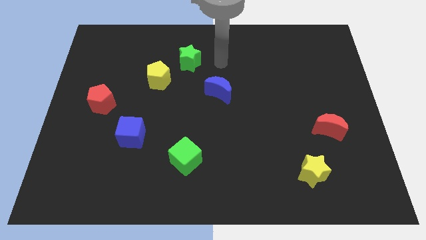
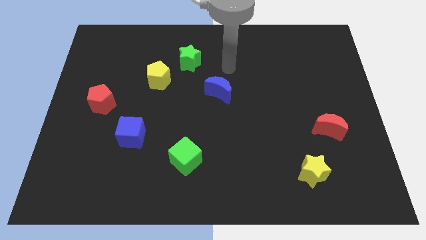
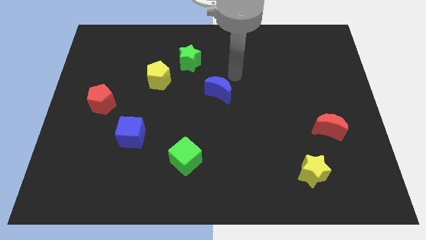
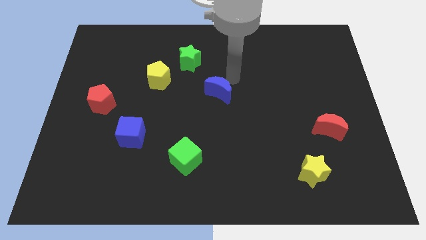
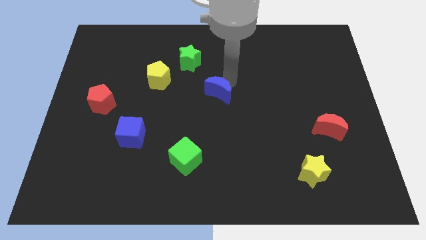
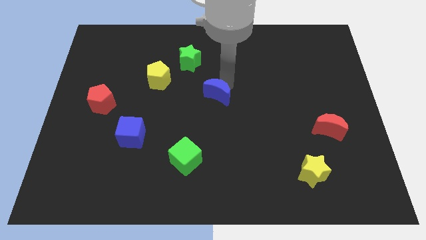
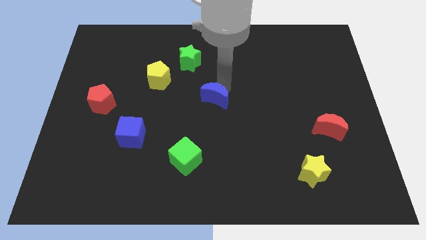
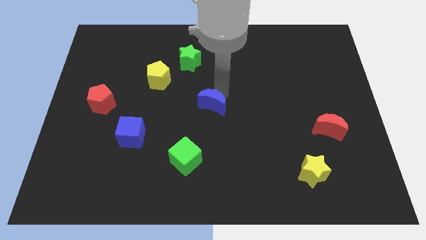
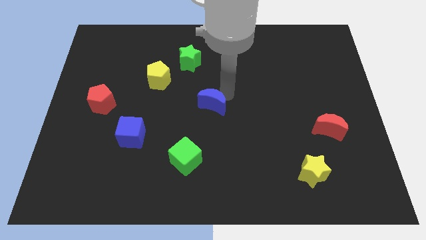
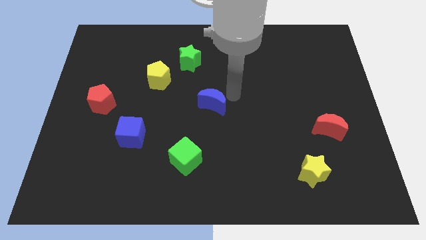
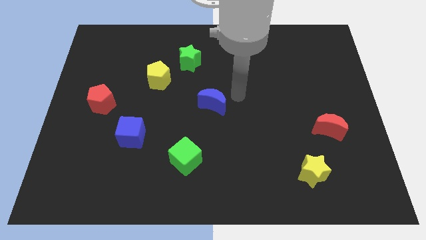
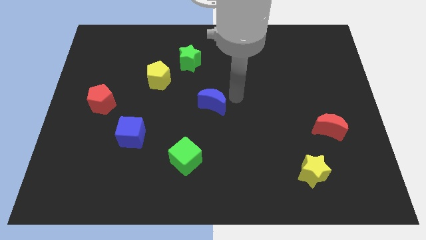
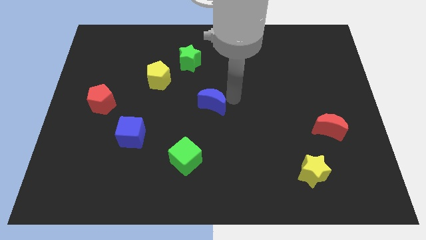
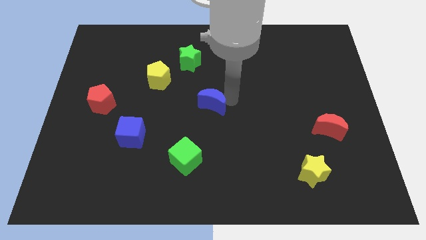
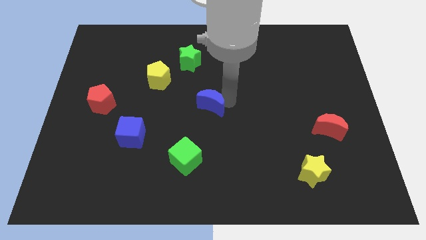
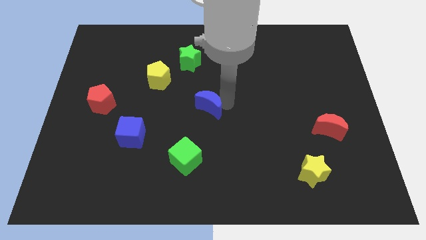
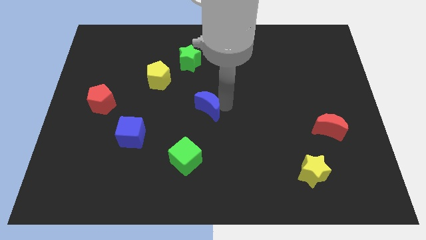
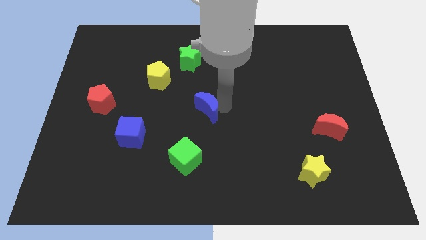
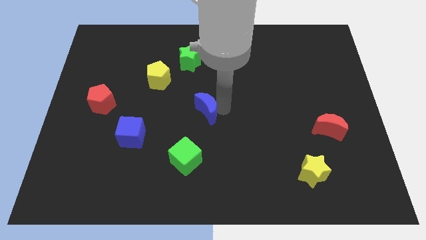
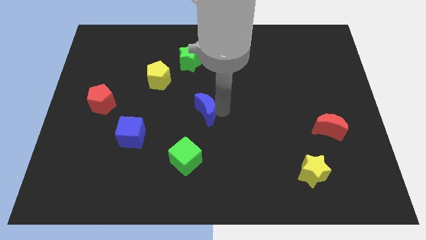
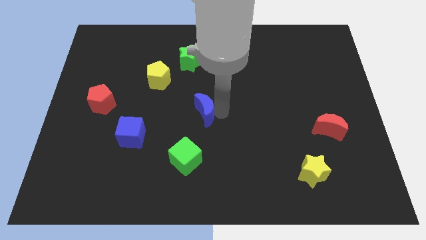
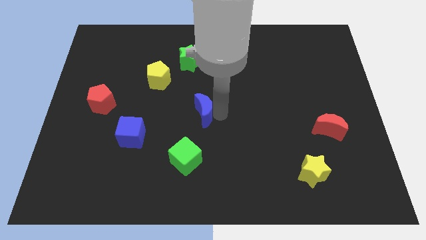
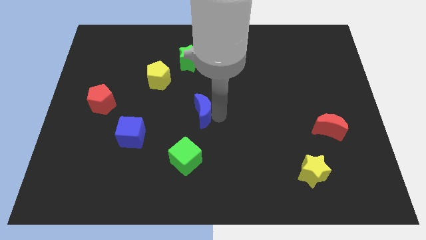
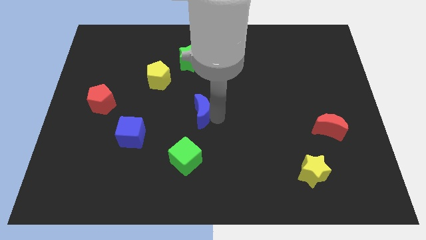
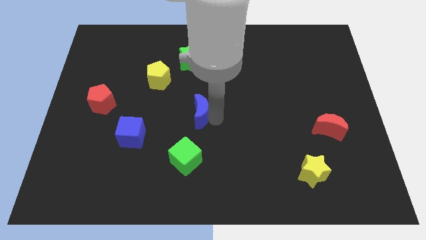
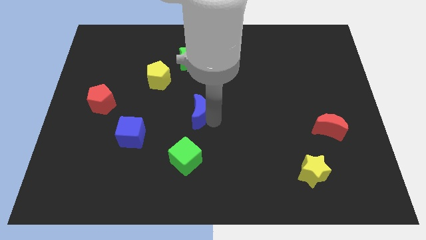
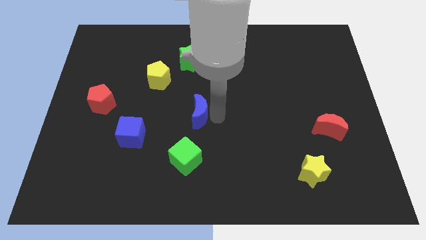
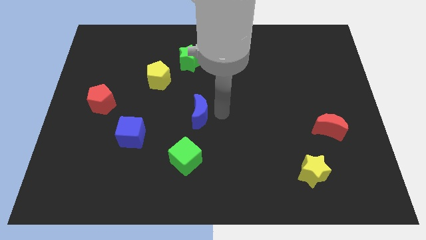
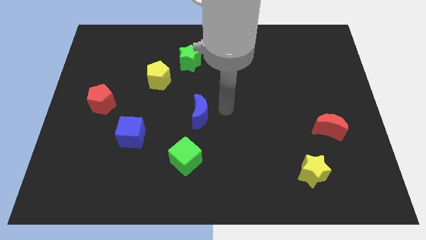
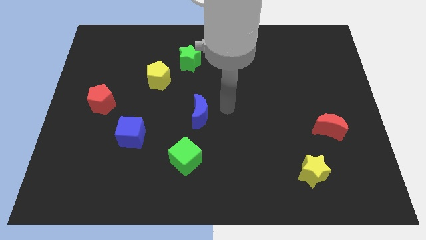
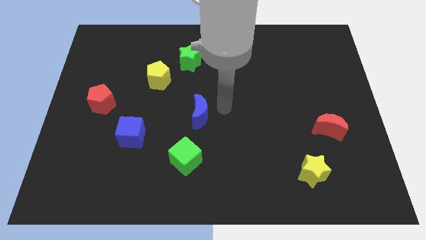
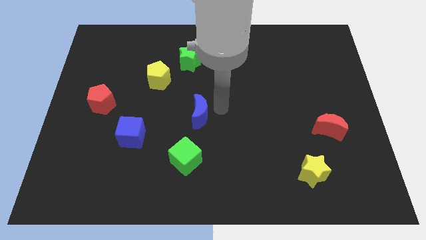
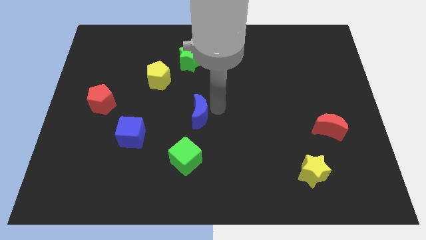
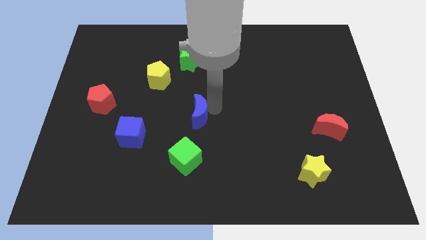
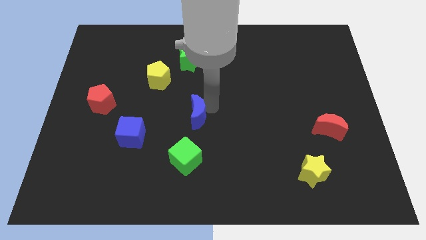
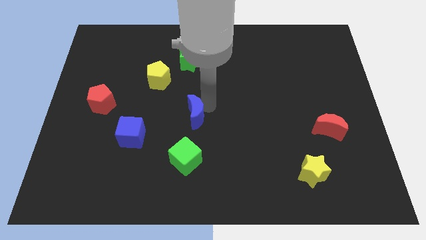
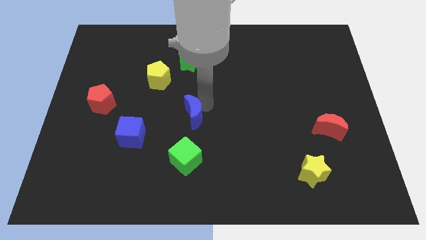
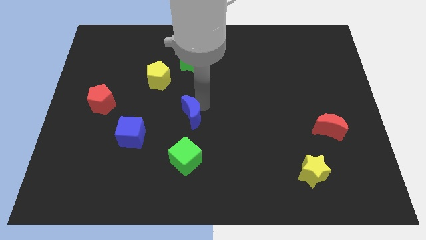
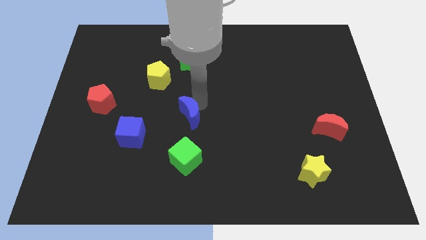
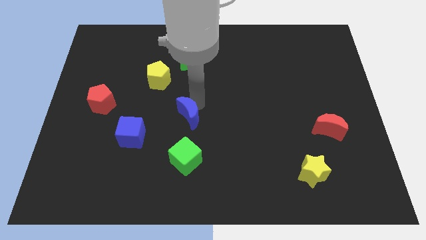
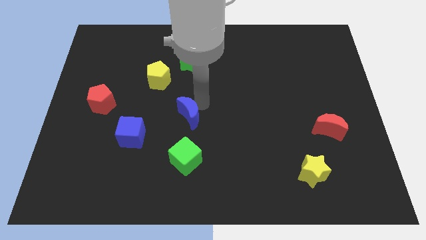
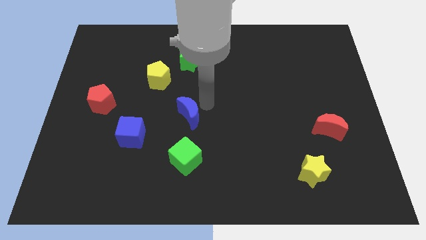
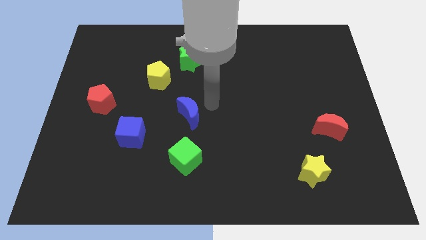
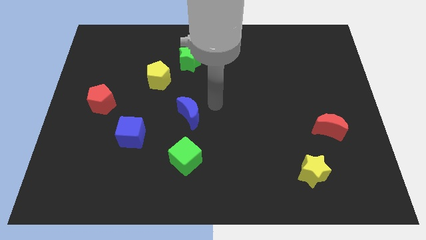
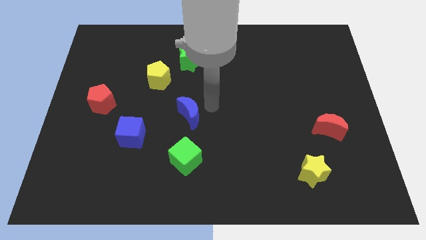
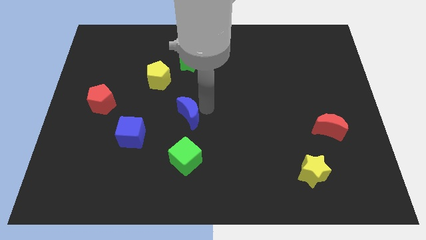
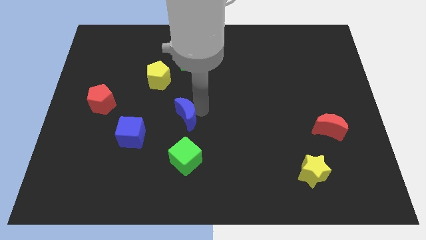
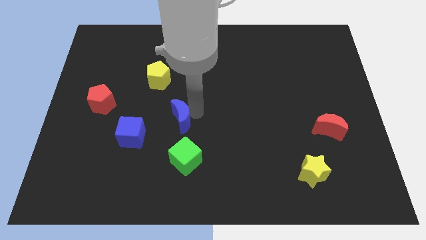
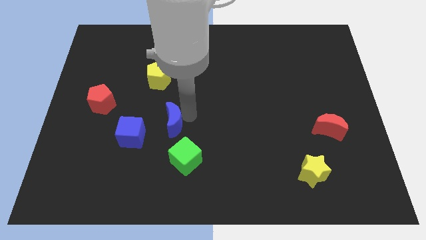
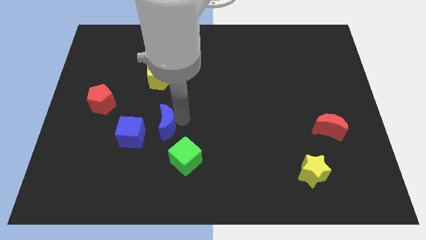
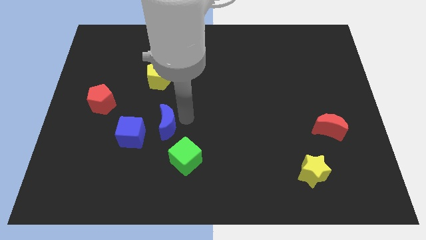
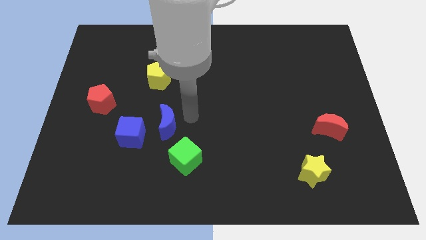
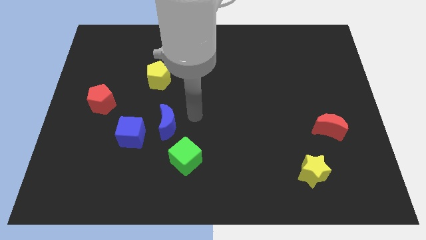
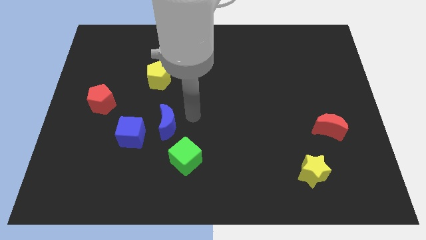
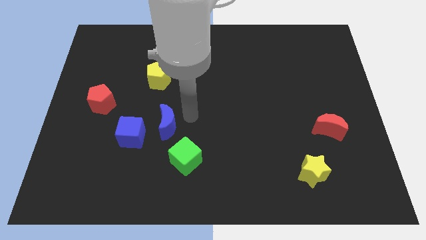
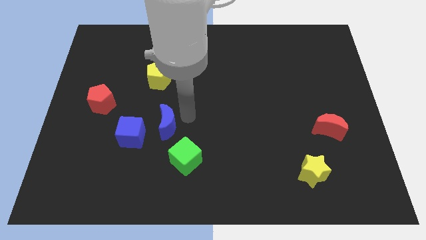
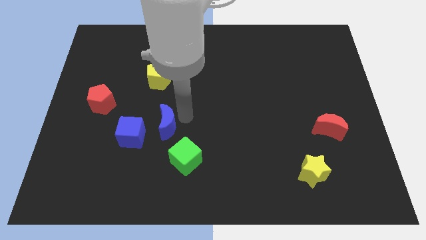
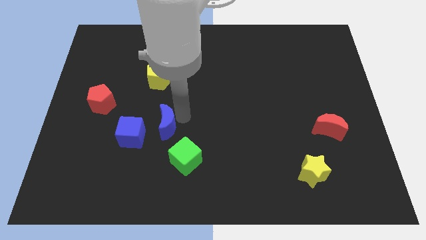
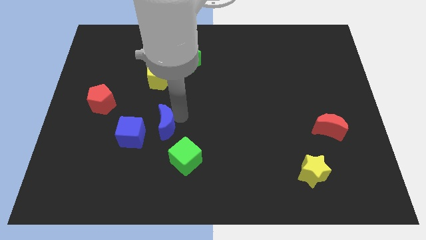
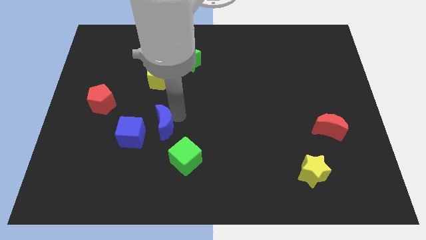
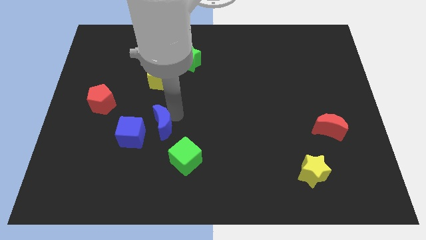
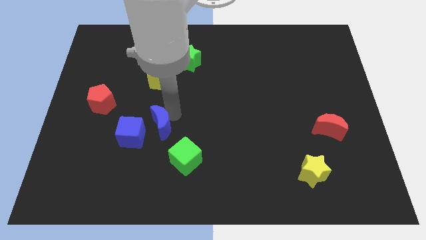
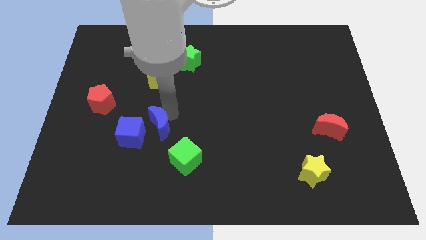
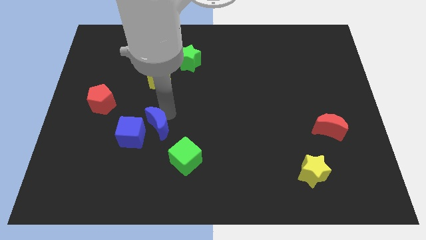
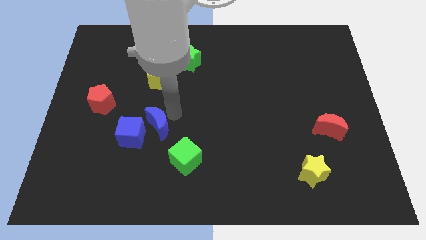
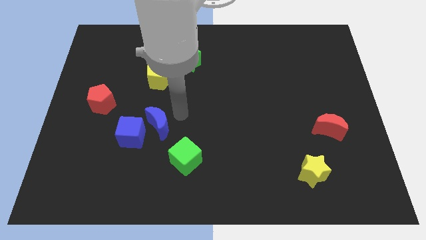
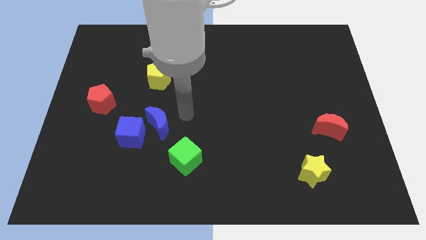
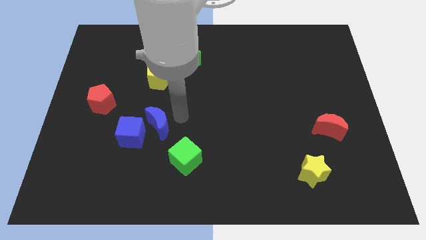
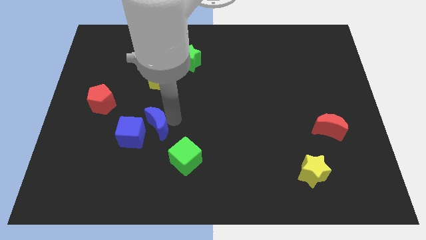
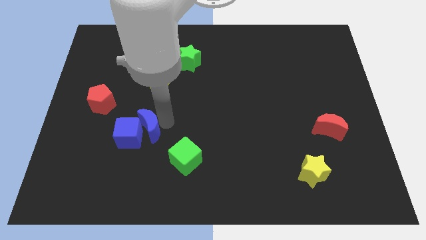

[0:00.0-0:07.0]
move the blue moon next to the blue cube
